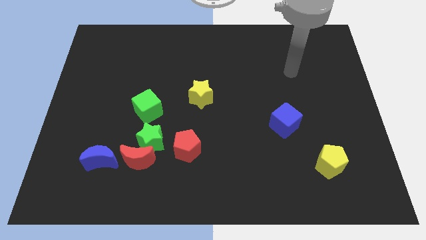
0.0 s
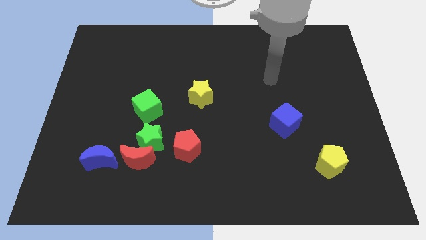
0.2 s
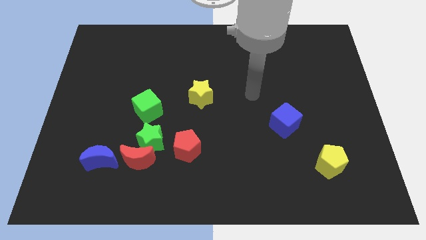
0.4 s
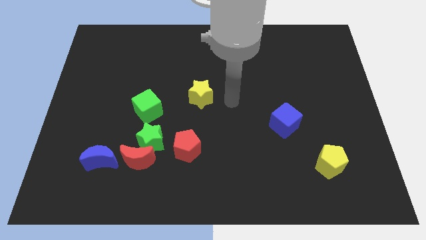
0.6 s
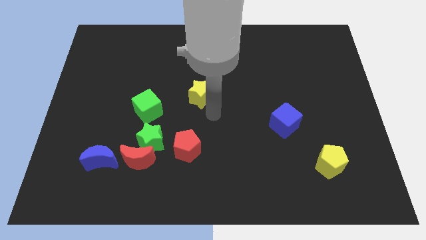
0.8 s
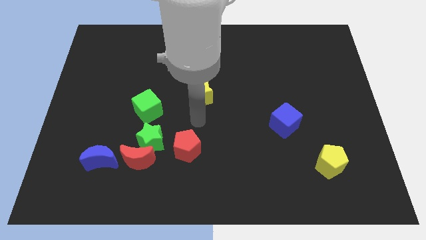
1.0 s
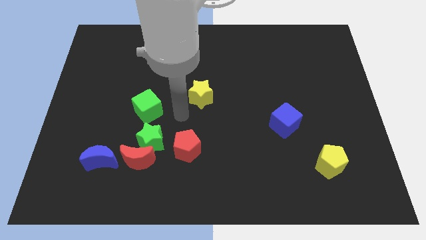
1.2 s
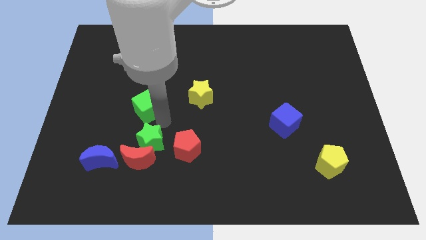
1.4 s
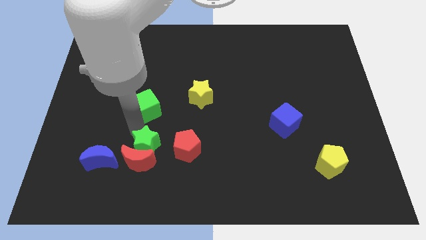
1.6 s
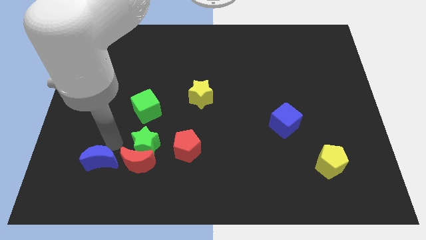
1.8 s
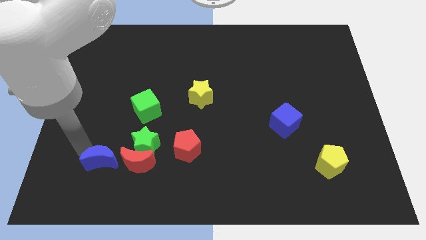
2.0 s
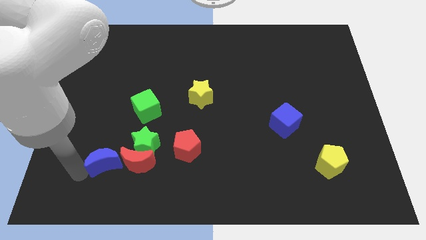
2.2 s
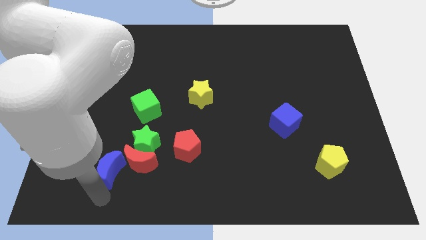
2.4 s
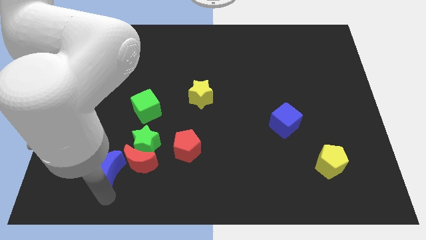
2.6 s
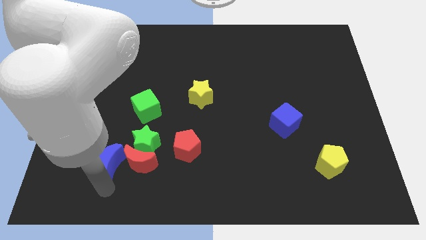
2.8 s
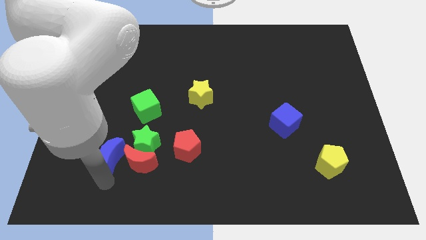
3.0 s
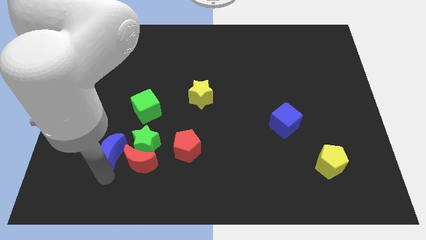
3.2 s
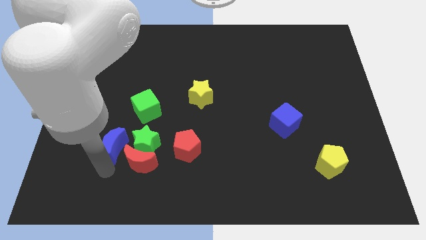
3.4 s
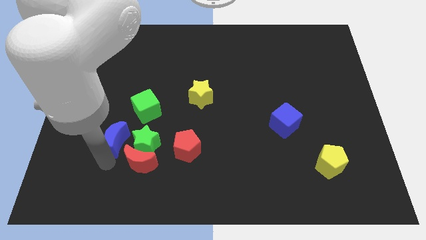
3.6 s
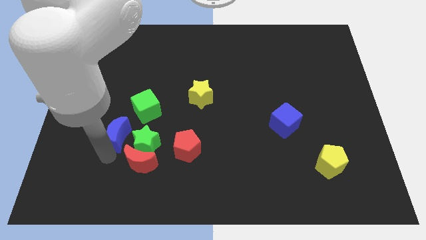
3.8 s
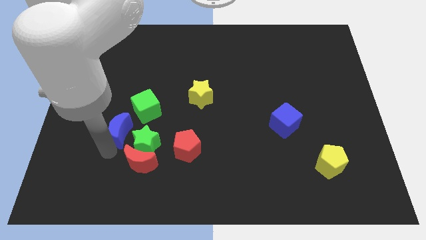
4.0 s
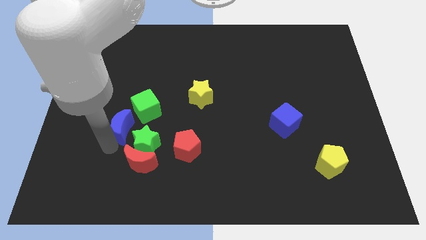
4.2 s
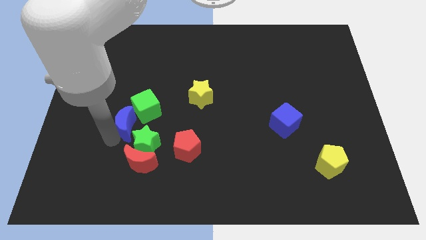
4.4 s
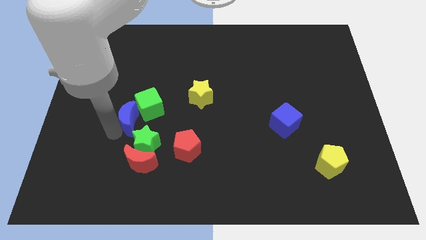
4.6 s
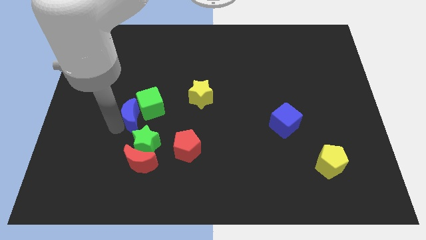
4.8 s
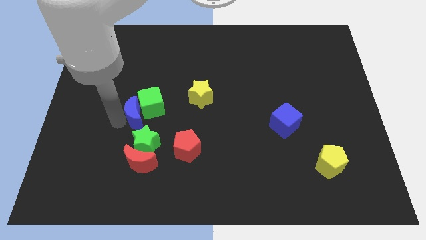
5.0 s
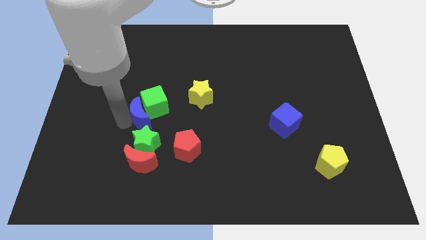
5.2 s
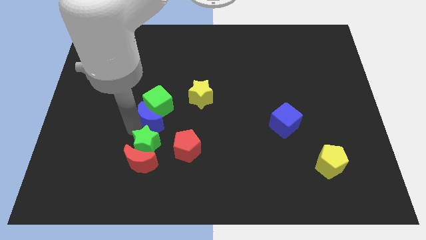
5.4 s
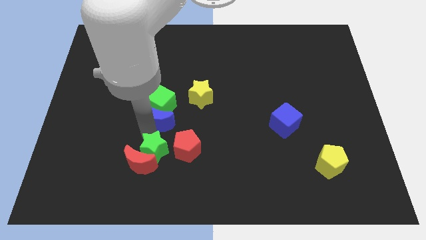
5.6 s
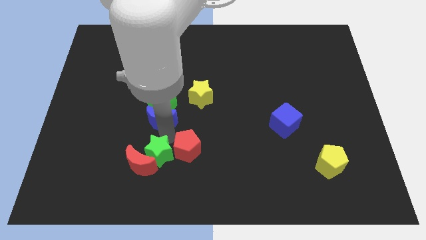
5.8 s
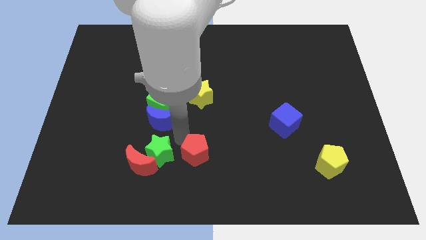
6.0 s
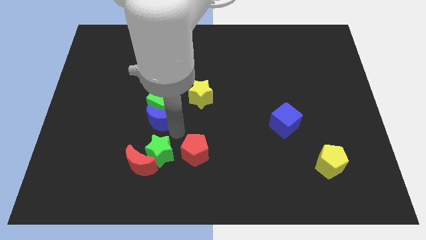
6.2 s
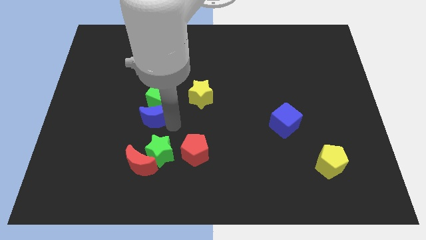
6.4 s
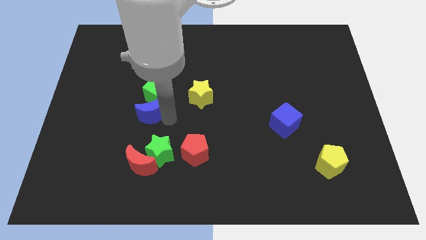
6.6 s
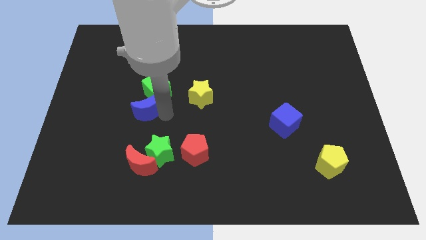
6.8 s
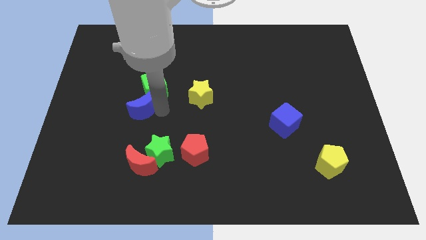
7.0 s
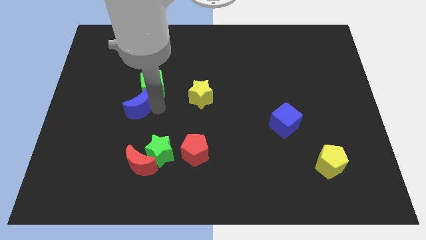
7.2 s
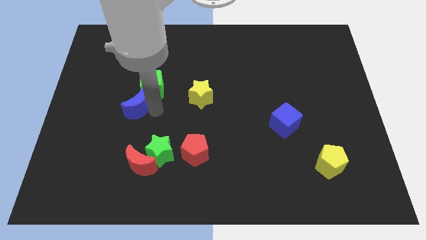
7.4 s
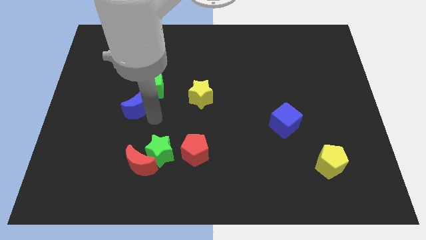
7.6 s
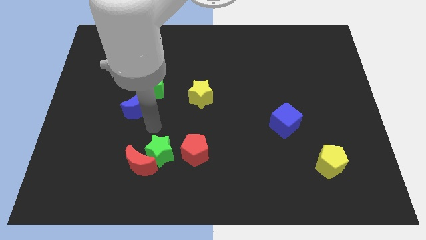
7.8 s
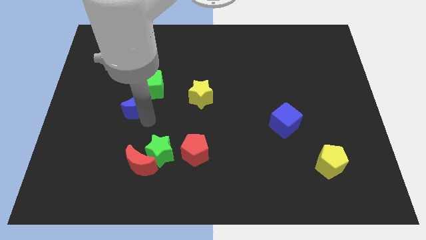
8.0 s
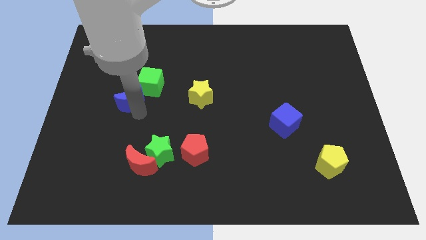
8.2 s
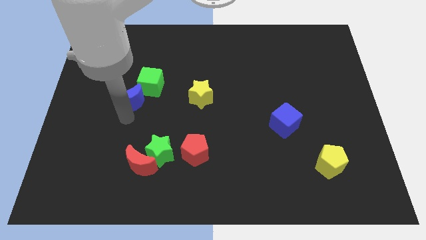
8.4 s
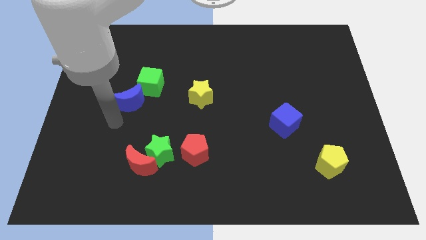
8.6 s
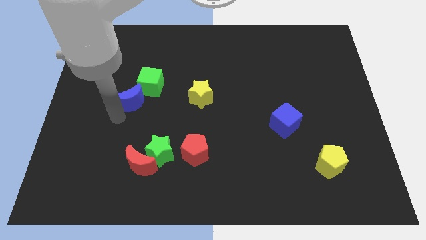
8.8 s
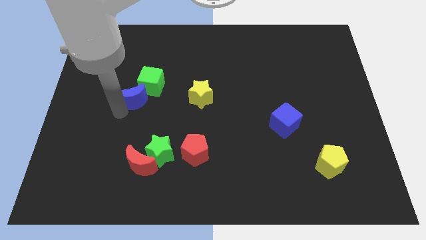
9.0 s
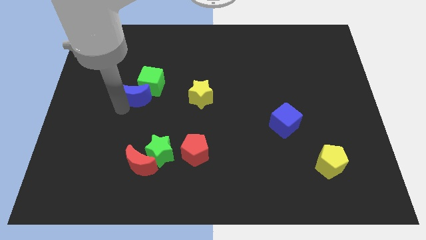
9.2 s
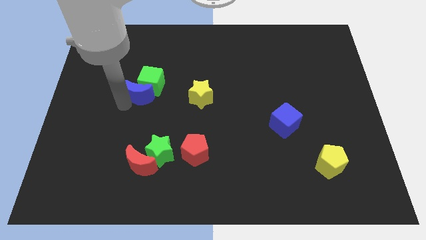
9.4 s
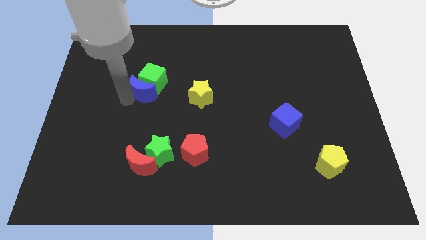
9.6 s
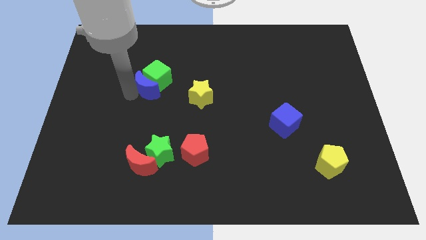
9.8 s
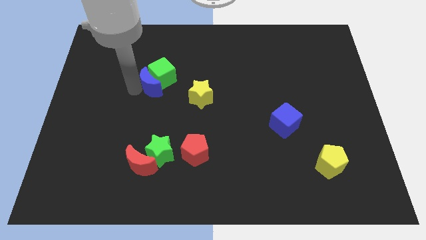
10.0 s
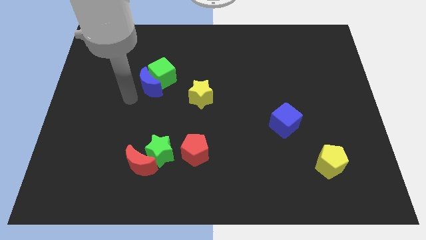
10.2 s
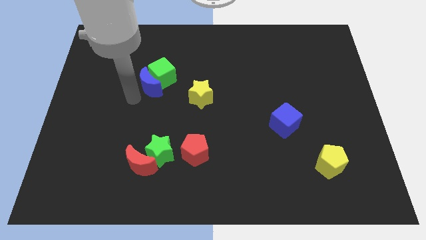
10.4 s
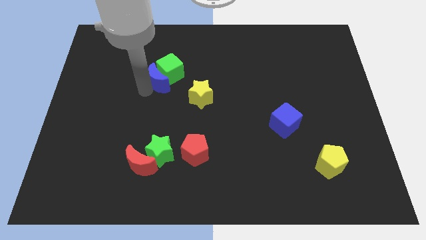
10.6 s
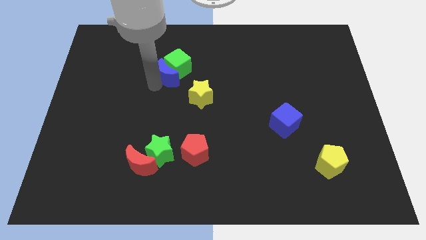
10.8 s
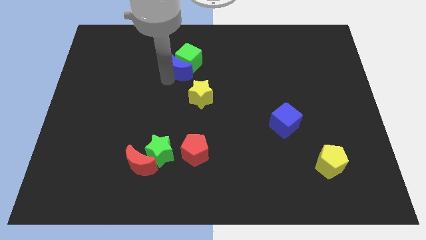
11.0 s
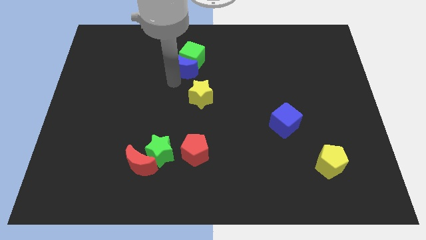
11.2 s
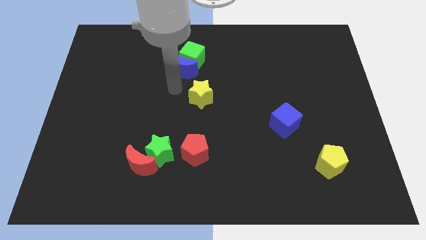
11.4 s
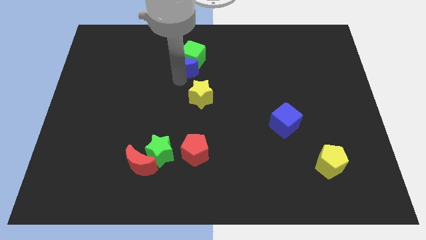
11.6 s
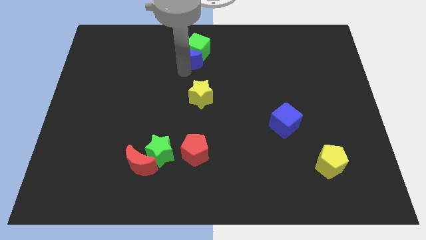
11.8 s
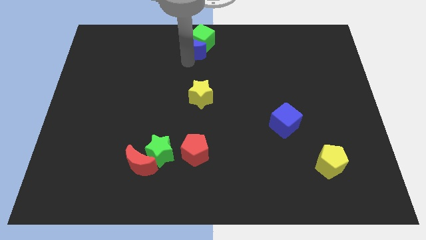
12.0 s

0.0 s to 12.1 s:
put the blue moon to the top side

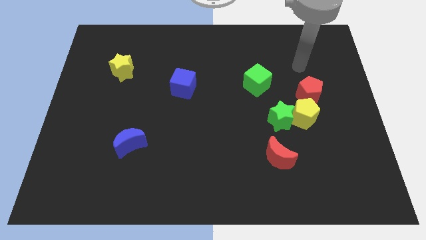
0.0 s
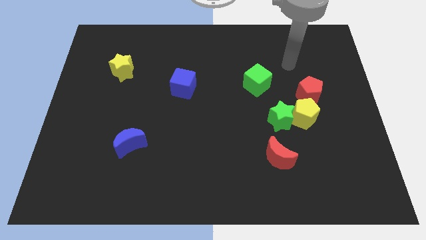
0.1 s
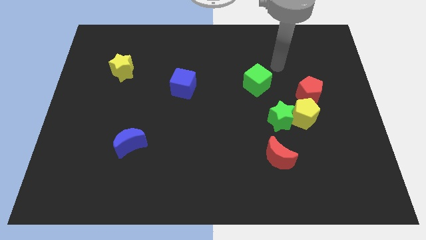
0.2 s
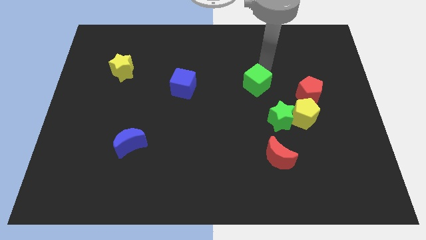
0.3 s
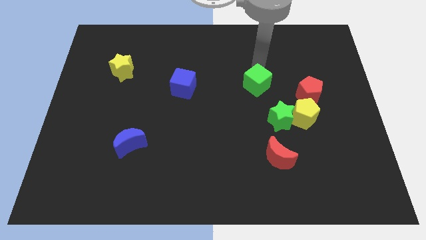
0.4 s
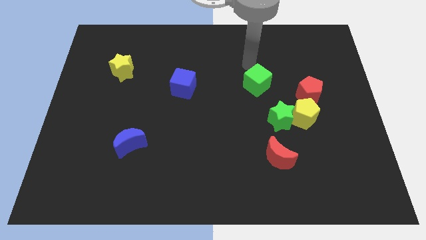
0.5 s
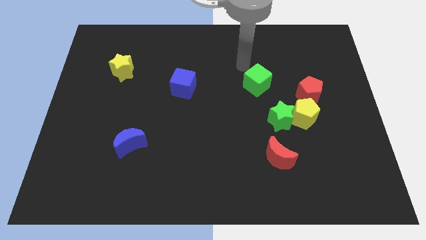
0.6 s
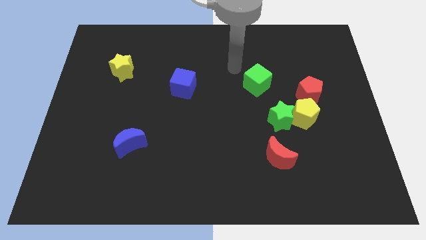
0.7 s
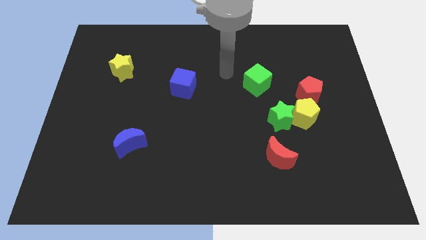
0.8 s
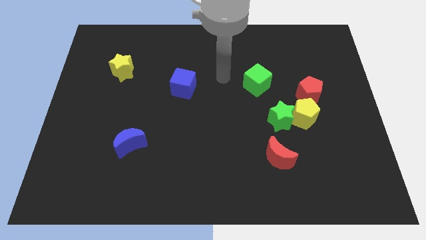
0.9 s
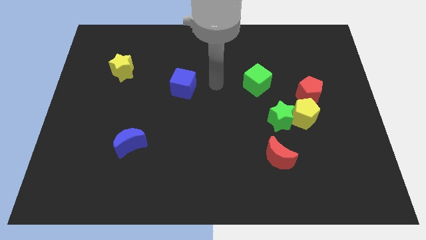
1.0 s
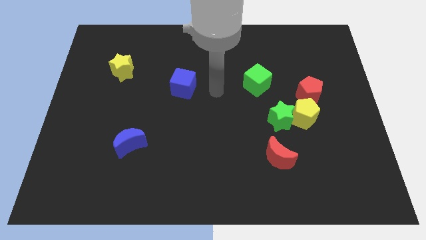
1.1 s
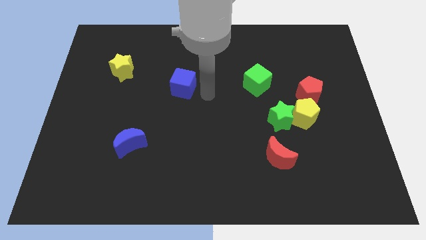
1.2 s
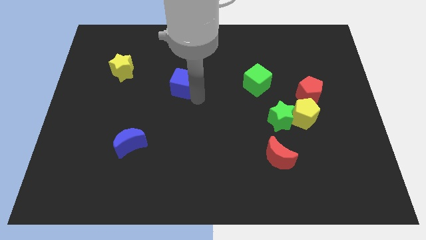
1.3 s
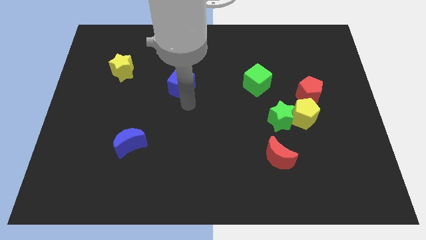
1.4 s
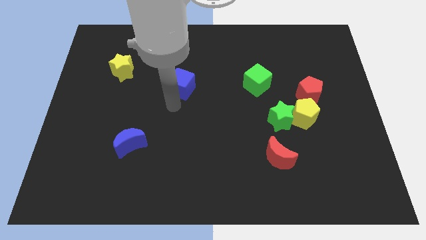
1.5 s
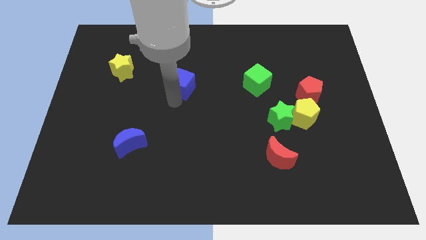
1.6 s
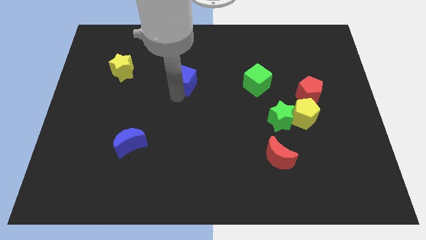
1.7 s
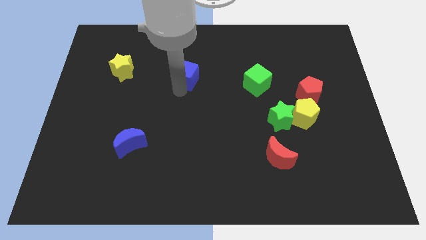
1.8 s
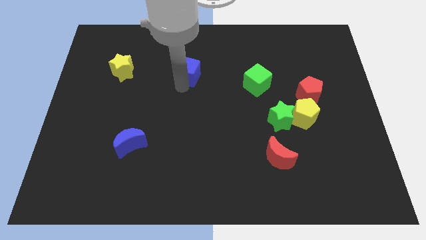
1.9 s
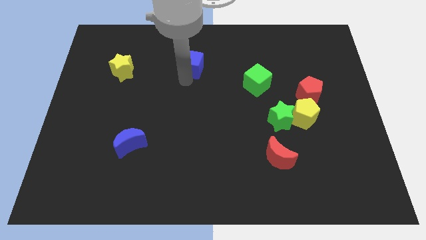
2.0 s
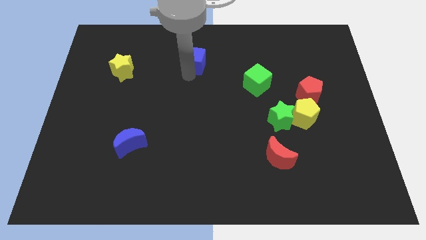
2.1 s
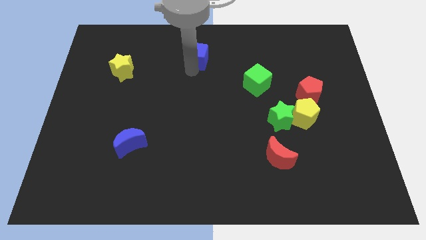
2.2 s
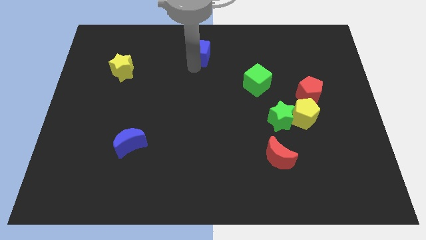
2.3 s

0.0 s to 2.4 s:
put the blue cube to the top side
